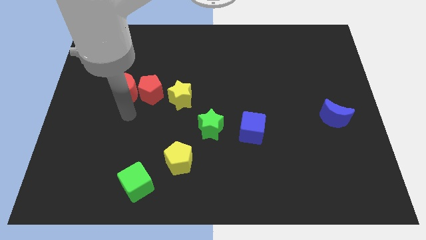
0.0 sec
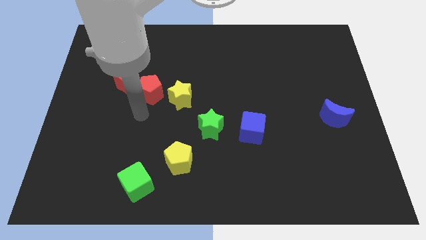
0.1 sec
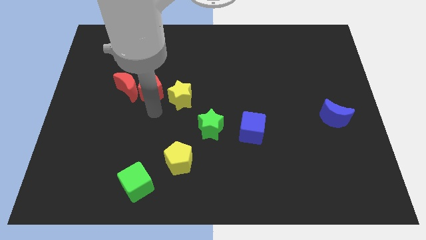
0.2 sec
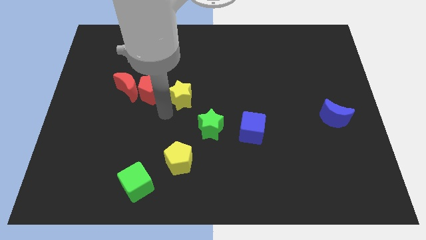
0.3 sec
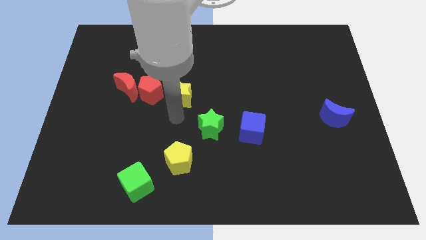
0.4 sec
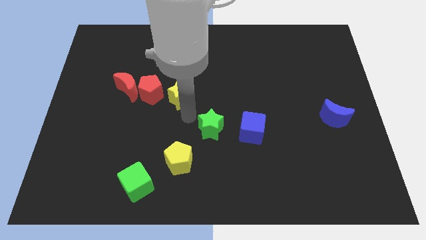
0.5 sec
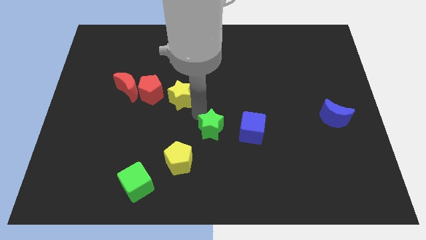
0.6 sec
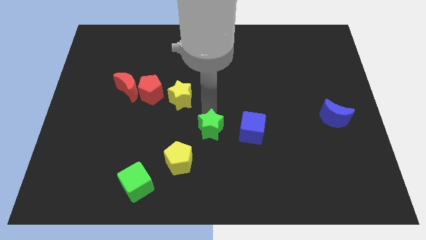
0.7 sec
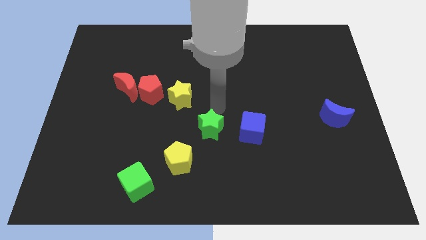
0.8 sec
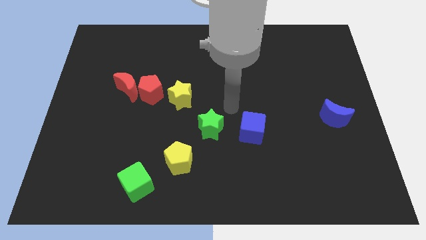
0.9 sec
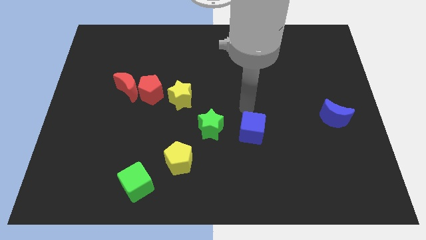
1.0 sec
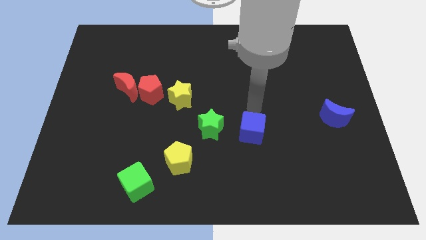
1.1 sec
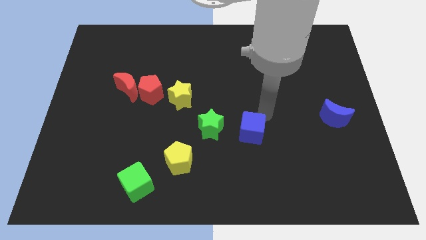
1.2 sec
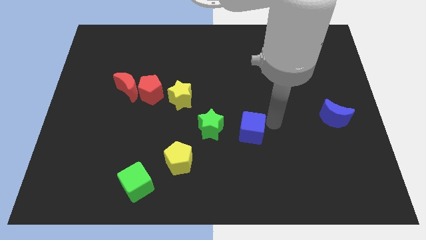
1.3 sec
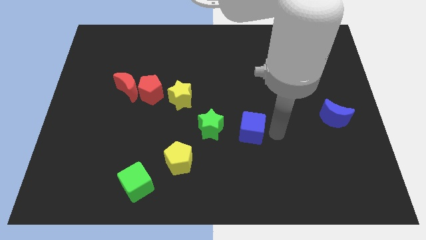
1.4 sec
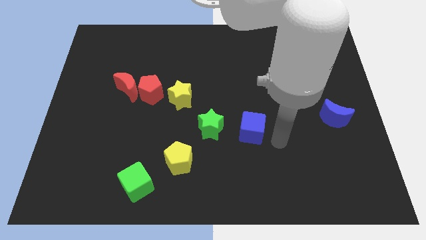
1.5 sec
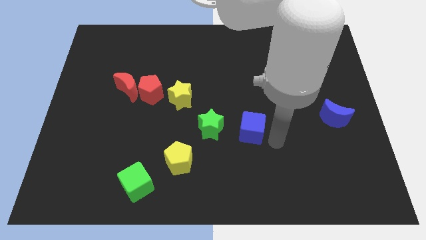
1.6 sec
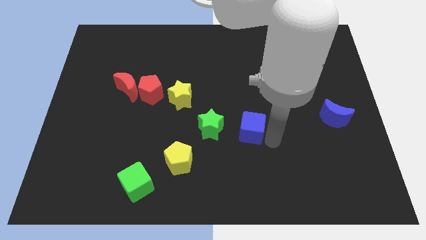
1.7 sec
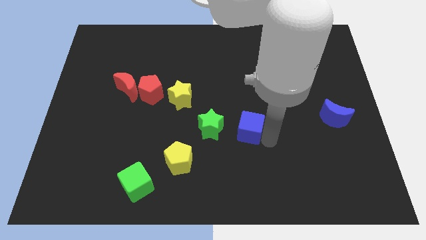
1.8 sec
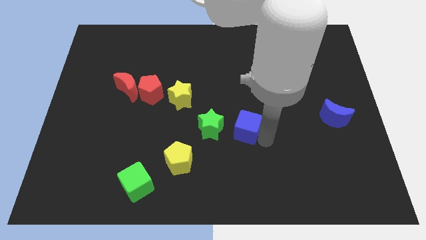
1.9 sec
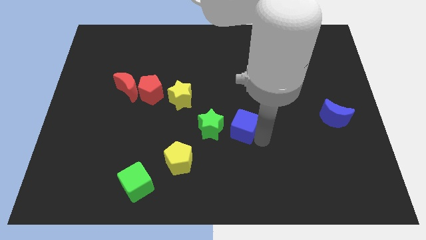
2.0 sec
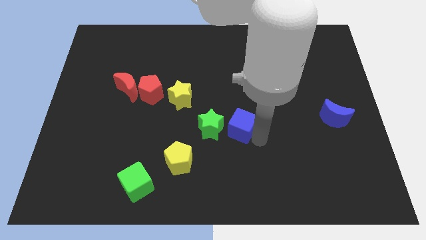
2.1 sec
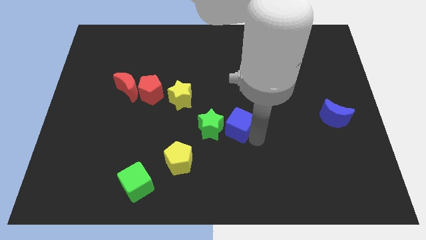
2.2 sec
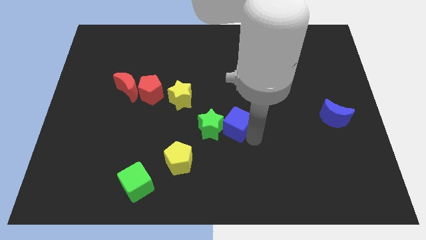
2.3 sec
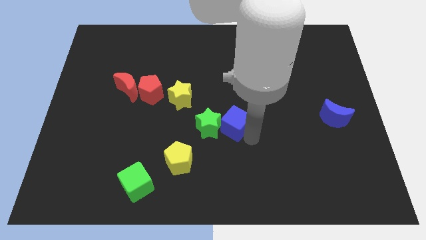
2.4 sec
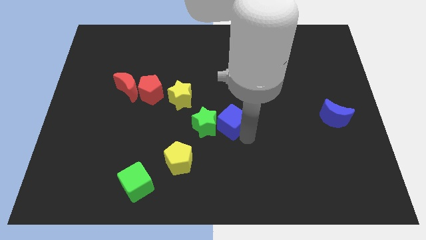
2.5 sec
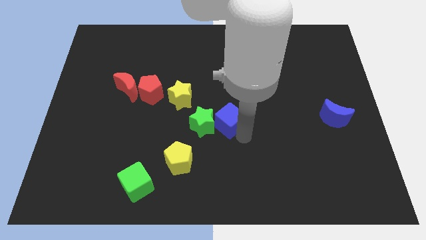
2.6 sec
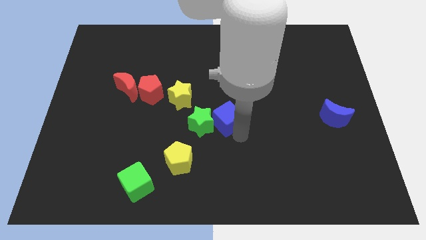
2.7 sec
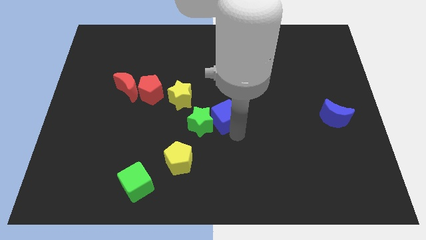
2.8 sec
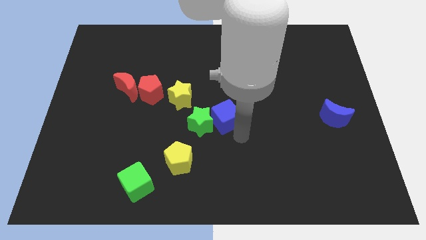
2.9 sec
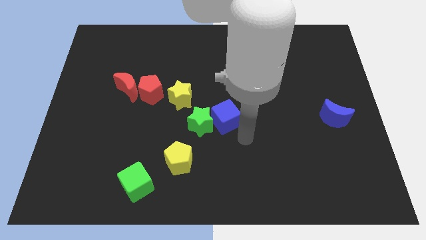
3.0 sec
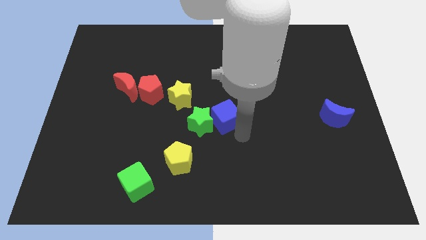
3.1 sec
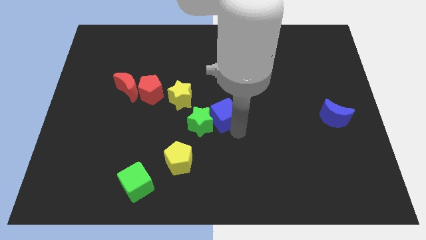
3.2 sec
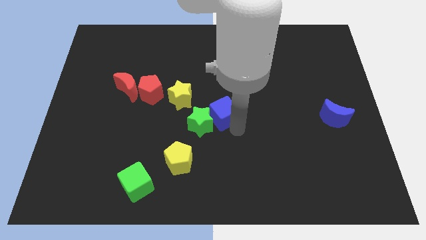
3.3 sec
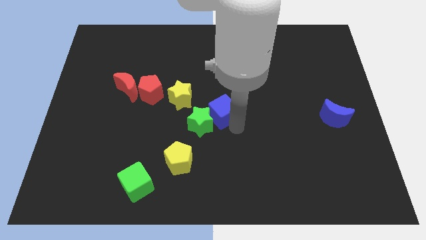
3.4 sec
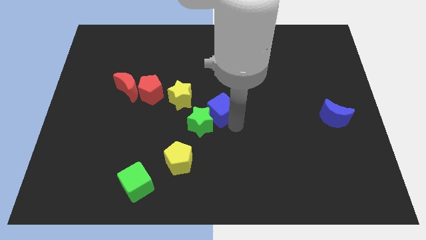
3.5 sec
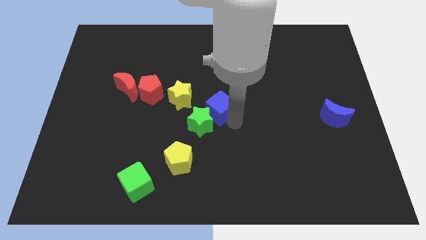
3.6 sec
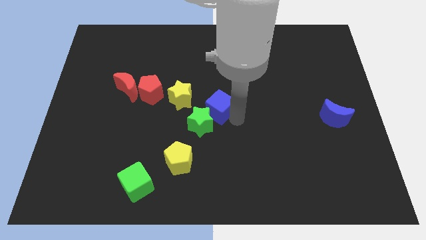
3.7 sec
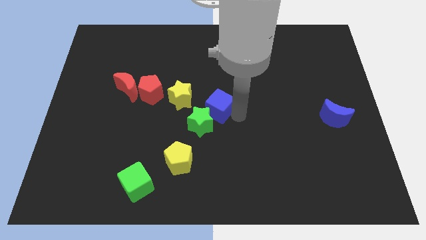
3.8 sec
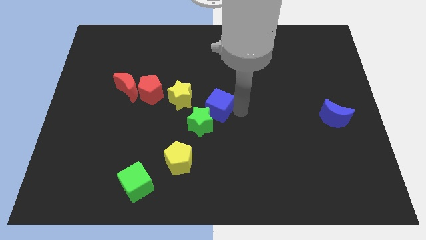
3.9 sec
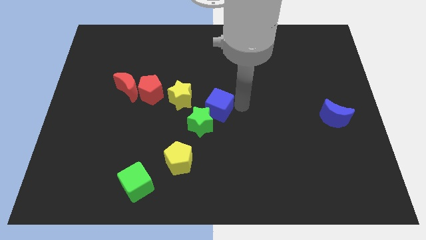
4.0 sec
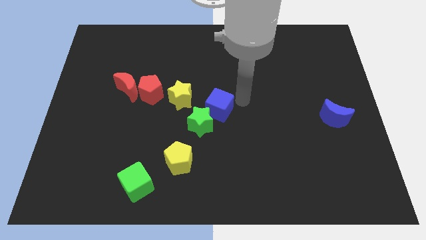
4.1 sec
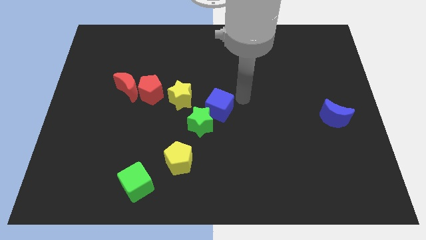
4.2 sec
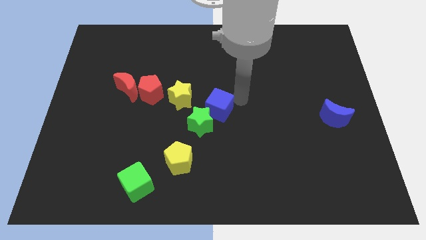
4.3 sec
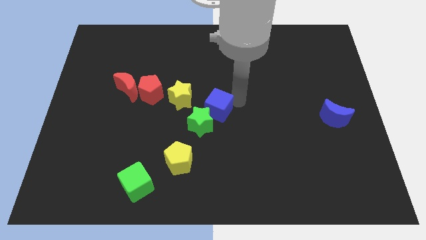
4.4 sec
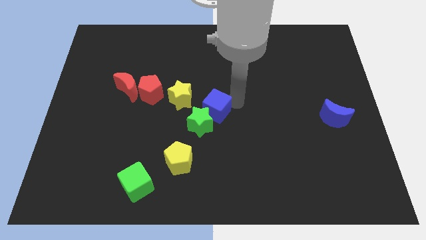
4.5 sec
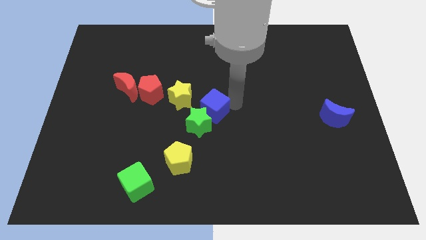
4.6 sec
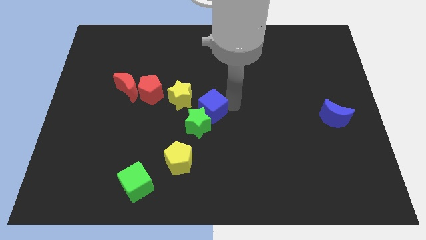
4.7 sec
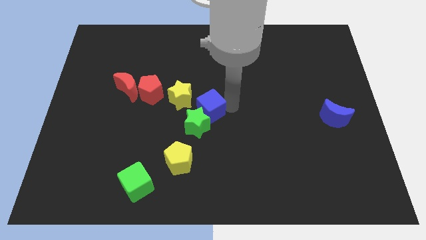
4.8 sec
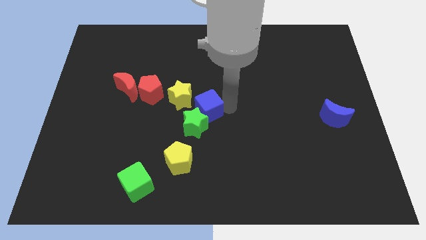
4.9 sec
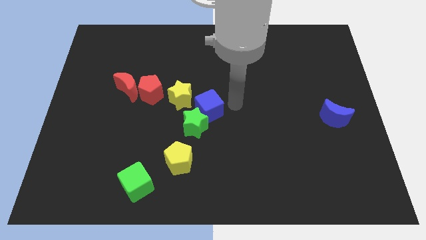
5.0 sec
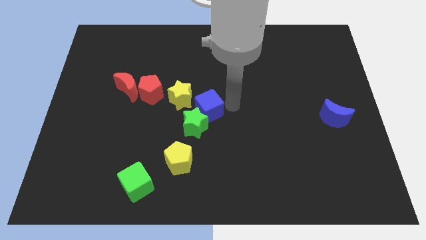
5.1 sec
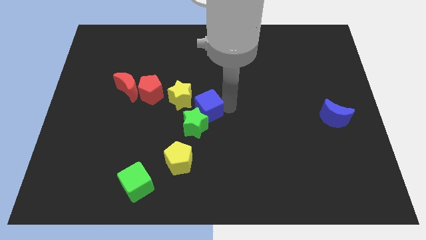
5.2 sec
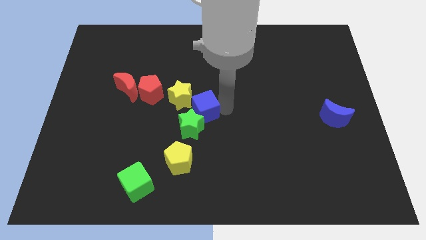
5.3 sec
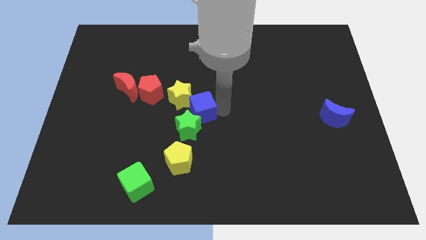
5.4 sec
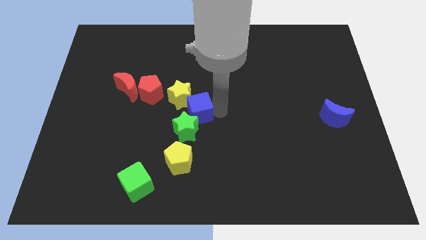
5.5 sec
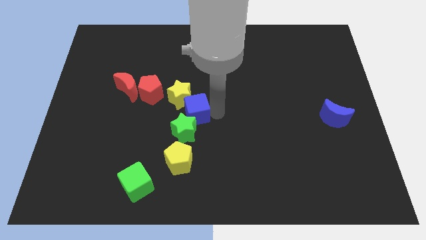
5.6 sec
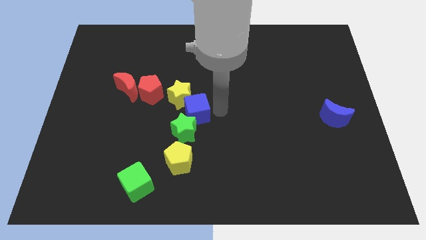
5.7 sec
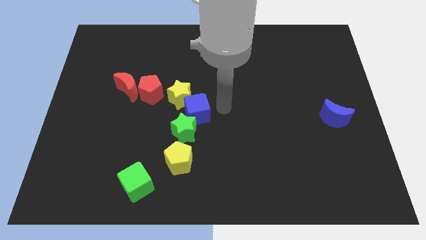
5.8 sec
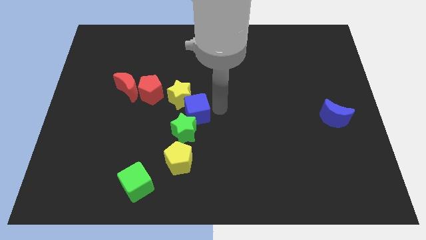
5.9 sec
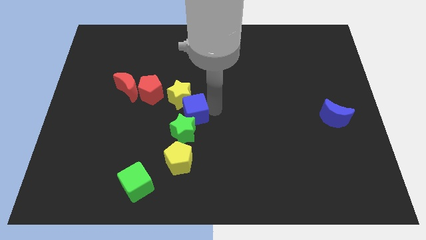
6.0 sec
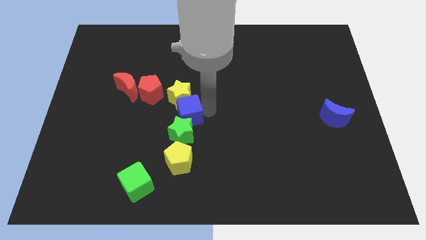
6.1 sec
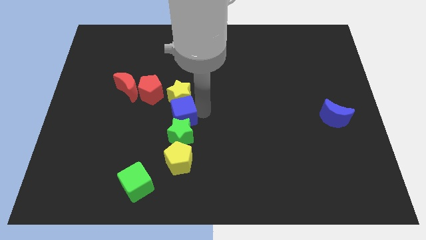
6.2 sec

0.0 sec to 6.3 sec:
push the blue cube to the bottom left side of the yellow star

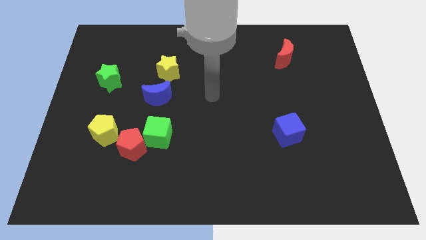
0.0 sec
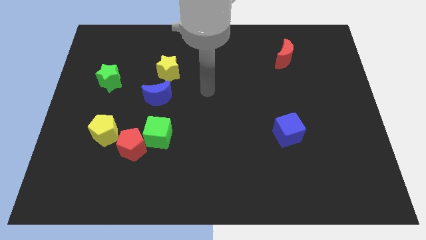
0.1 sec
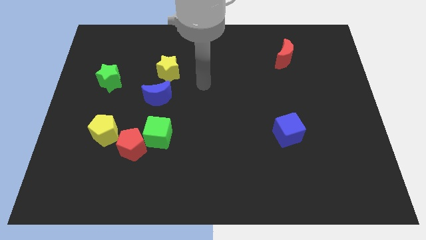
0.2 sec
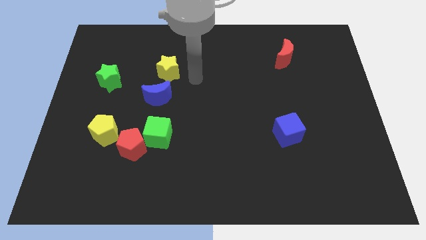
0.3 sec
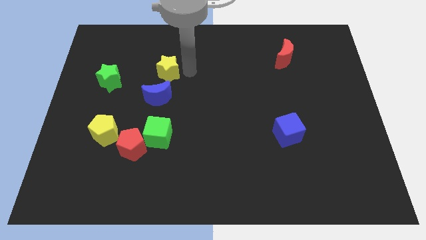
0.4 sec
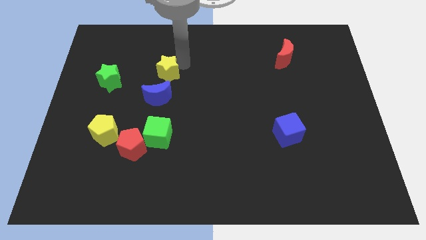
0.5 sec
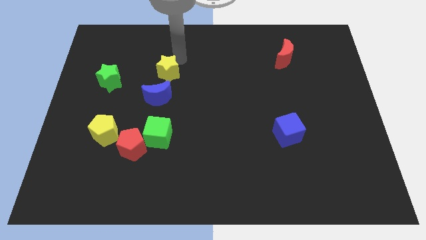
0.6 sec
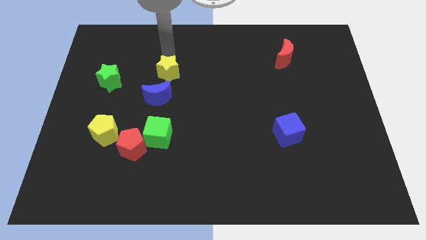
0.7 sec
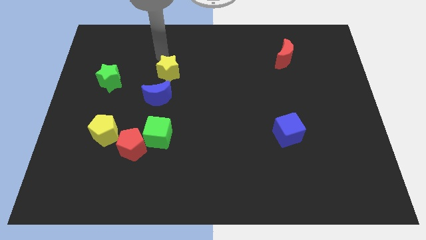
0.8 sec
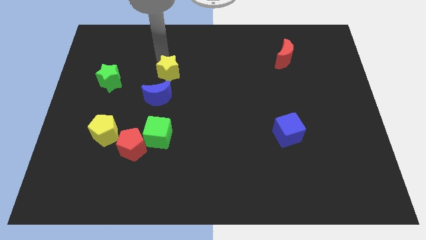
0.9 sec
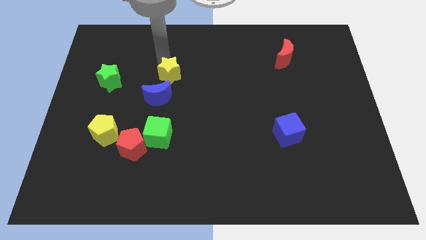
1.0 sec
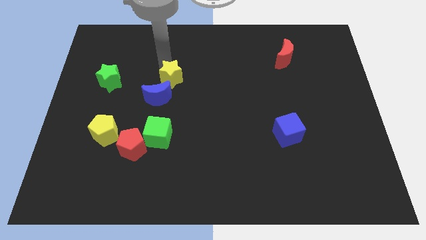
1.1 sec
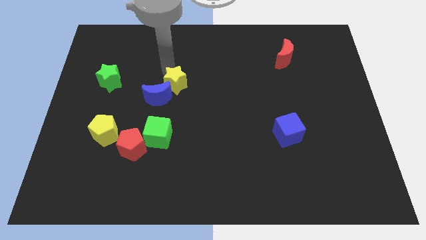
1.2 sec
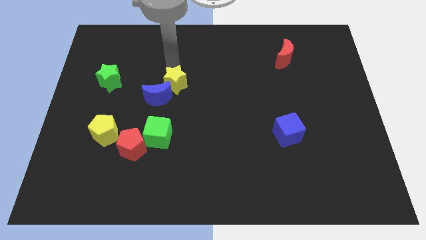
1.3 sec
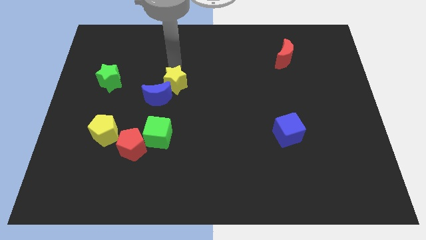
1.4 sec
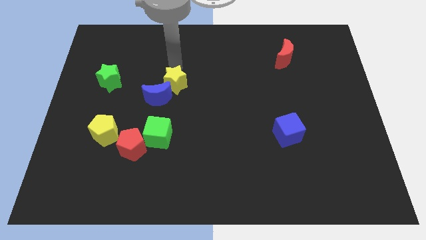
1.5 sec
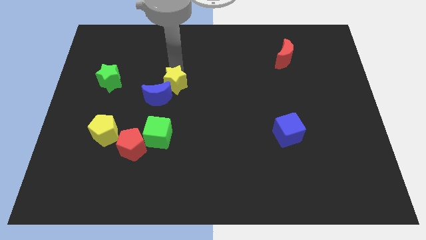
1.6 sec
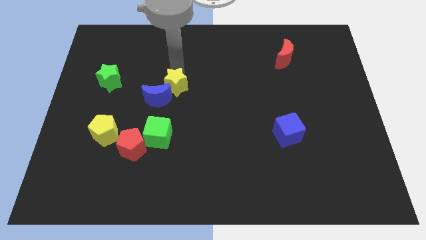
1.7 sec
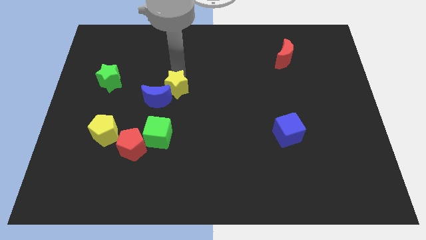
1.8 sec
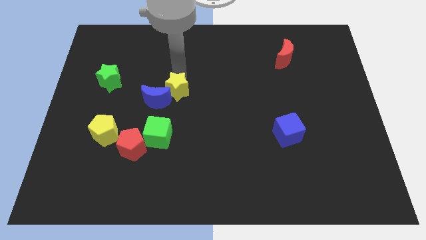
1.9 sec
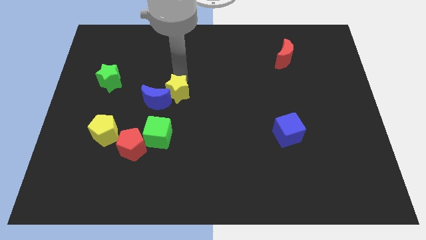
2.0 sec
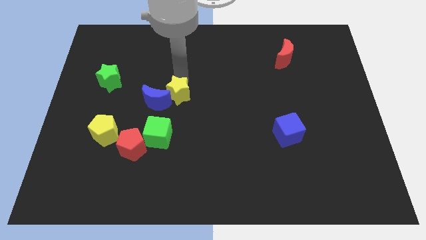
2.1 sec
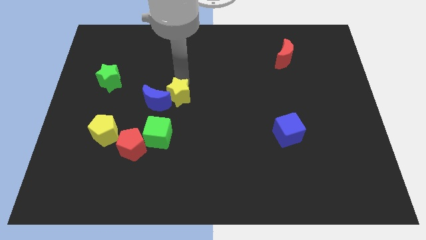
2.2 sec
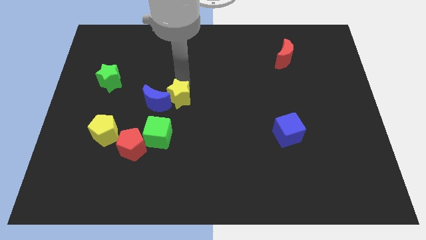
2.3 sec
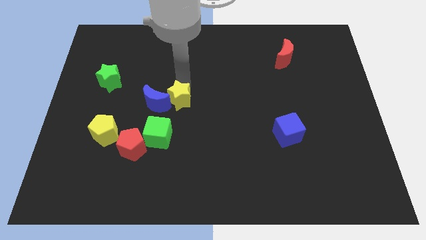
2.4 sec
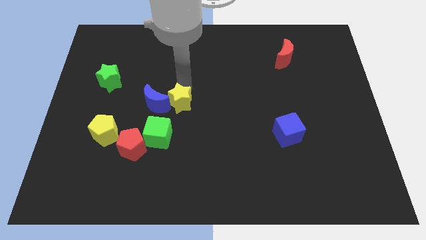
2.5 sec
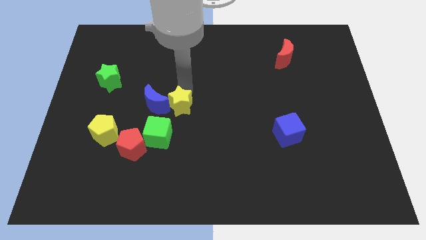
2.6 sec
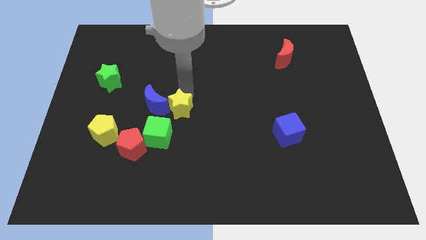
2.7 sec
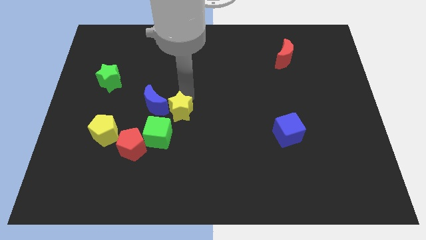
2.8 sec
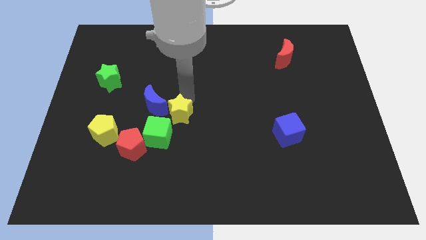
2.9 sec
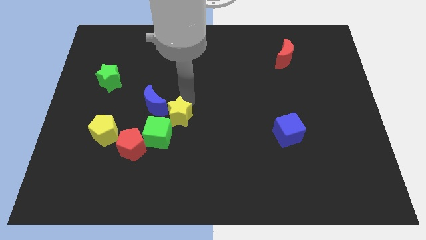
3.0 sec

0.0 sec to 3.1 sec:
push the yellow star diagonally up and to the right of the red pentagon
